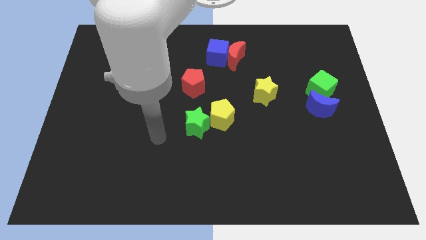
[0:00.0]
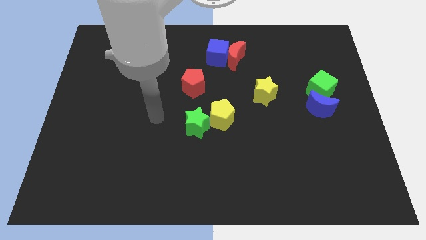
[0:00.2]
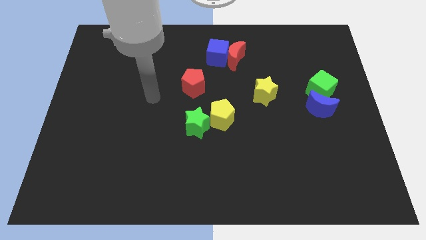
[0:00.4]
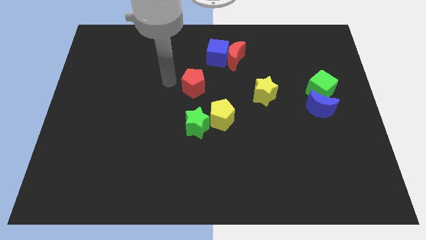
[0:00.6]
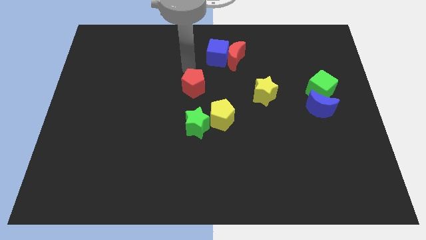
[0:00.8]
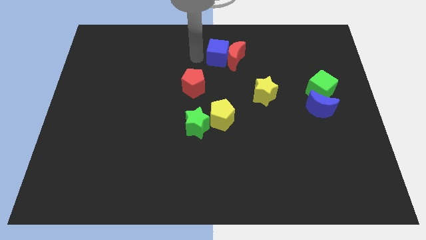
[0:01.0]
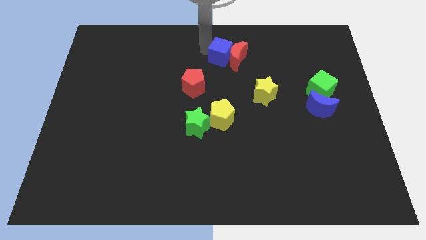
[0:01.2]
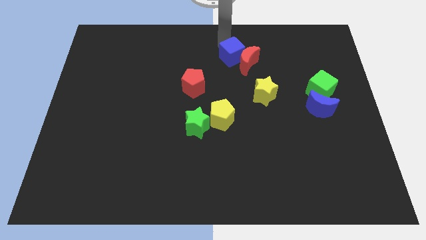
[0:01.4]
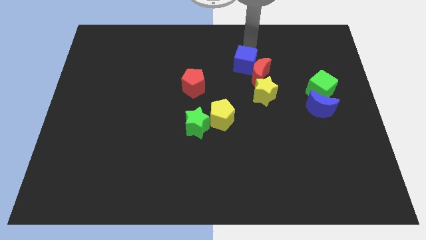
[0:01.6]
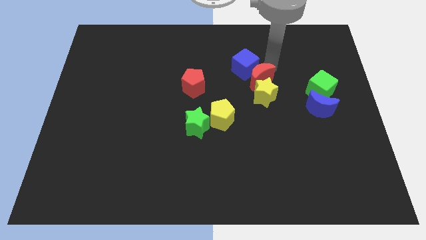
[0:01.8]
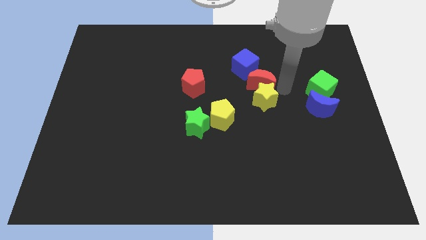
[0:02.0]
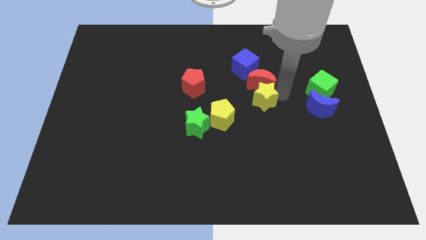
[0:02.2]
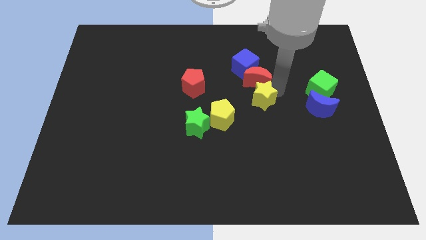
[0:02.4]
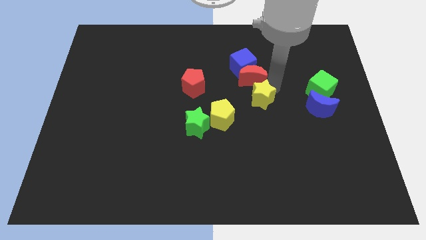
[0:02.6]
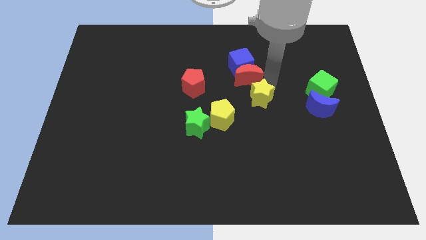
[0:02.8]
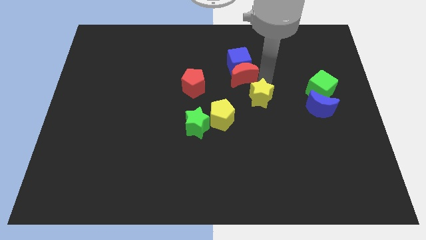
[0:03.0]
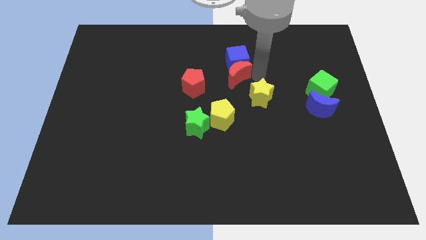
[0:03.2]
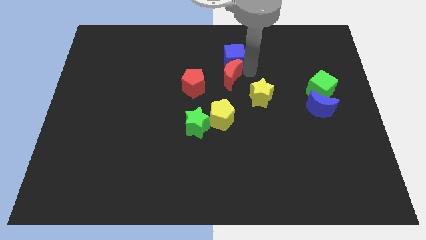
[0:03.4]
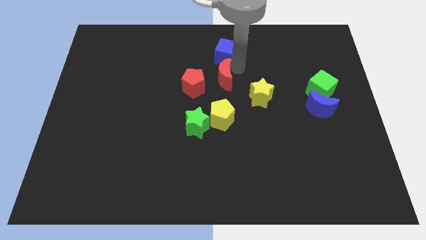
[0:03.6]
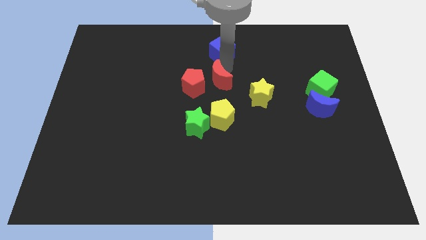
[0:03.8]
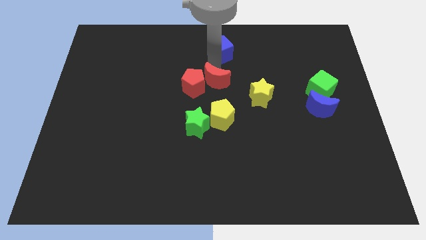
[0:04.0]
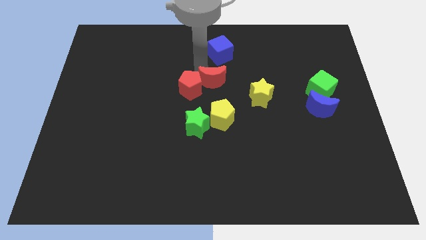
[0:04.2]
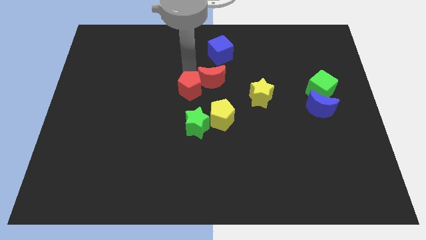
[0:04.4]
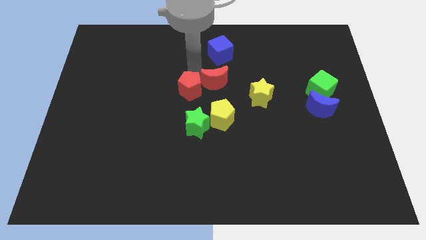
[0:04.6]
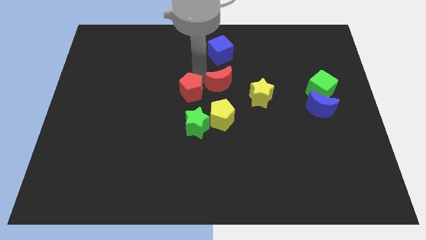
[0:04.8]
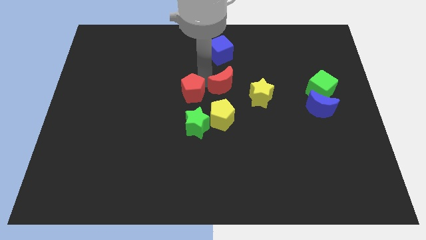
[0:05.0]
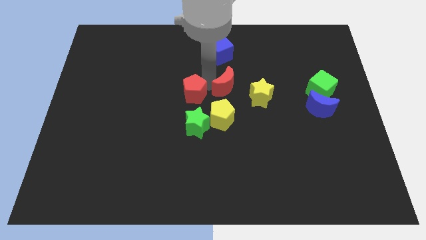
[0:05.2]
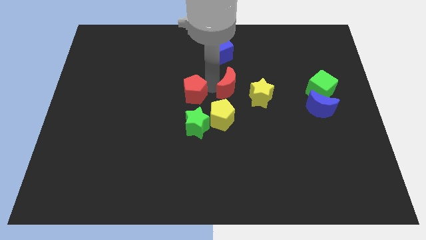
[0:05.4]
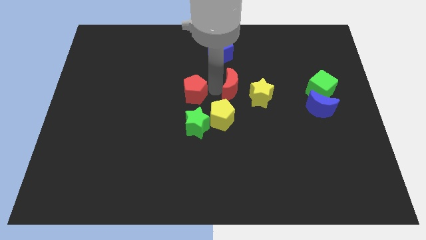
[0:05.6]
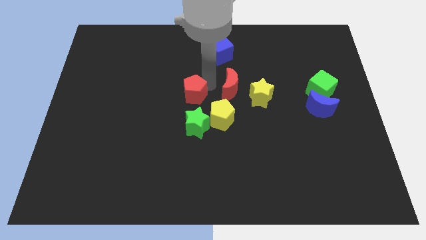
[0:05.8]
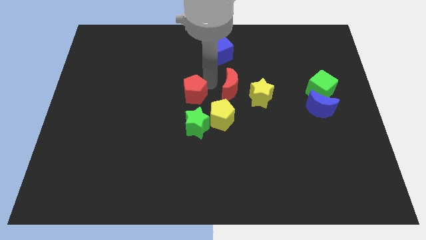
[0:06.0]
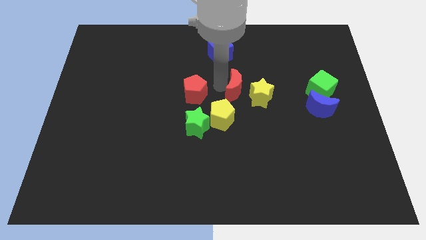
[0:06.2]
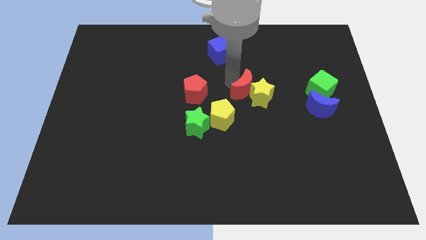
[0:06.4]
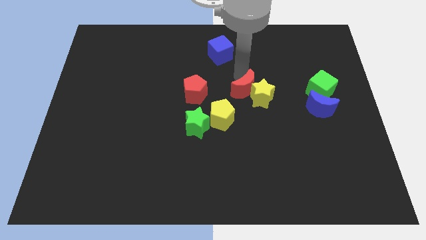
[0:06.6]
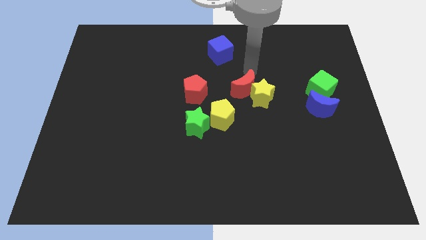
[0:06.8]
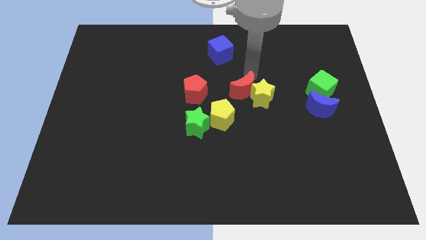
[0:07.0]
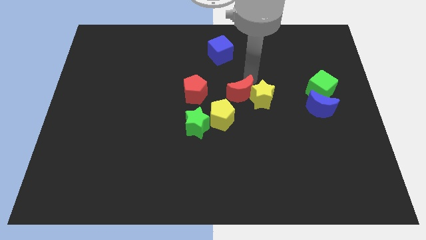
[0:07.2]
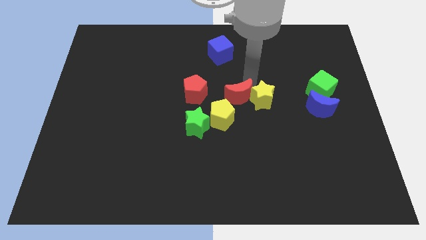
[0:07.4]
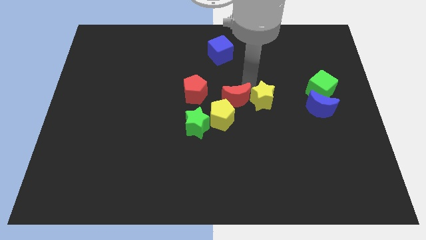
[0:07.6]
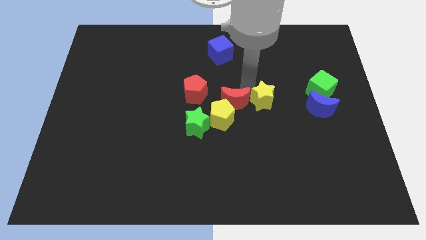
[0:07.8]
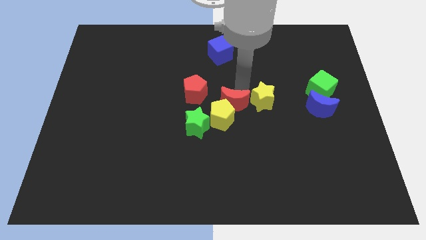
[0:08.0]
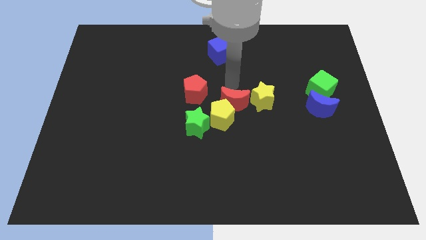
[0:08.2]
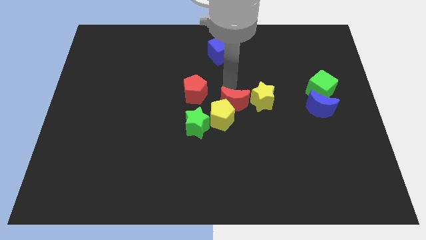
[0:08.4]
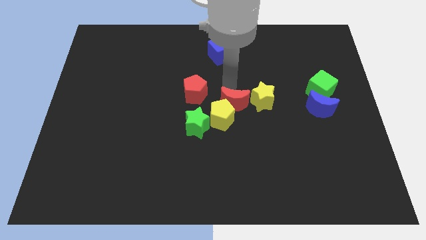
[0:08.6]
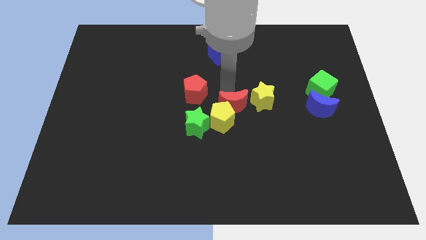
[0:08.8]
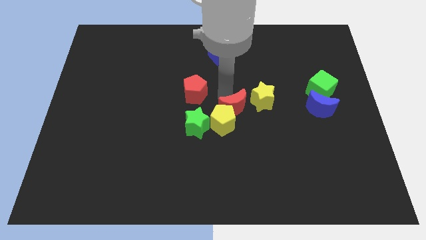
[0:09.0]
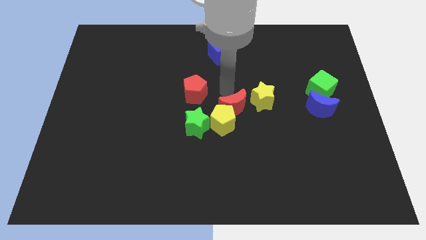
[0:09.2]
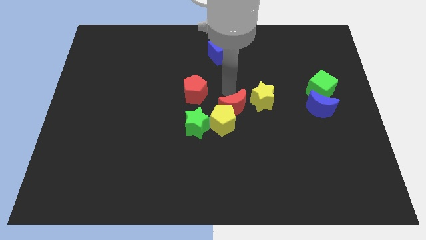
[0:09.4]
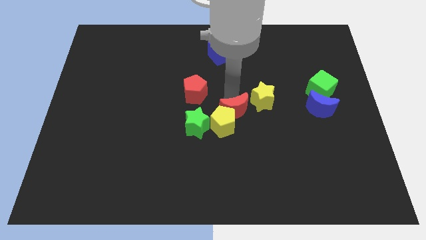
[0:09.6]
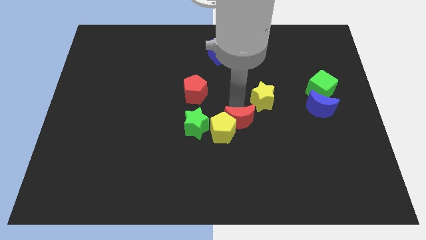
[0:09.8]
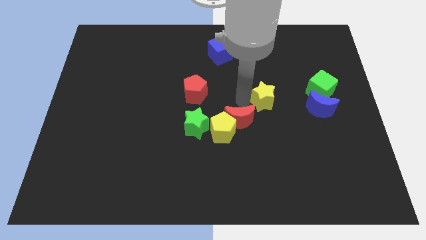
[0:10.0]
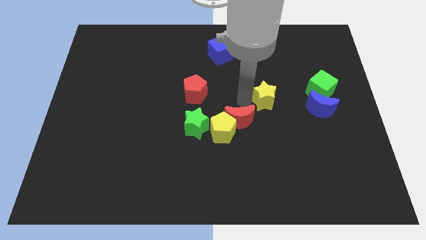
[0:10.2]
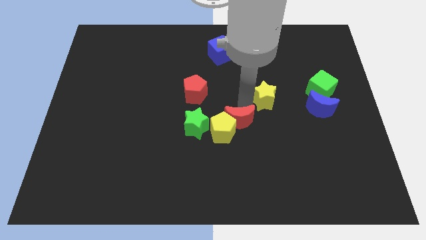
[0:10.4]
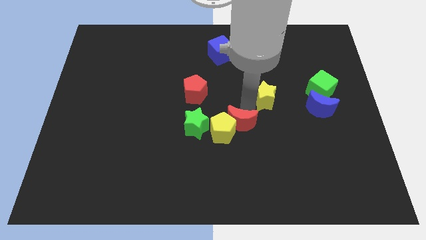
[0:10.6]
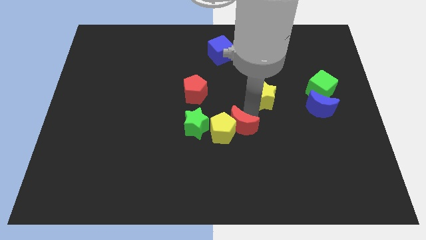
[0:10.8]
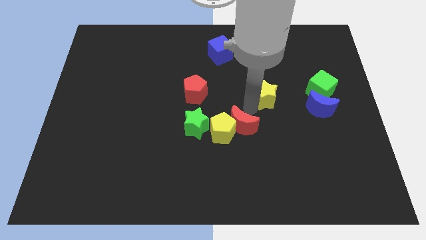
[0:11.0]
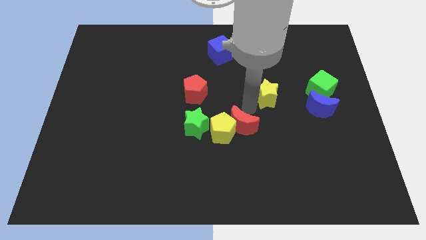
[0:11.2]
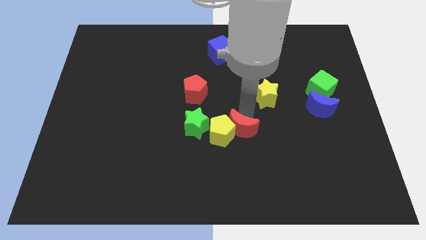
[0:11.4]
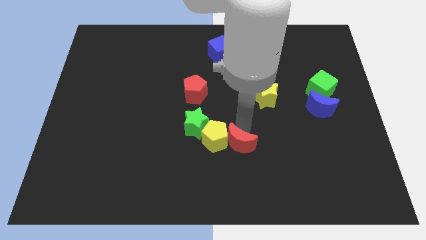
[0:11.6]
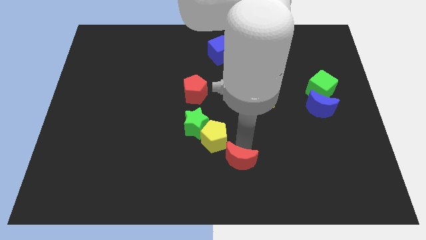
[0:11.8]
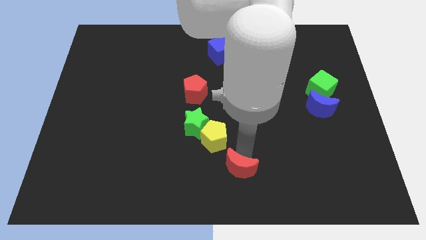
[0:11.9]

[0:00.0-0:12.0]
slide the red moon to the bottom side of the yellow pentagon

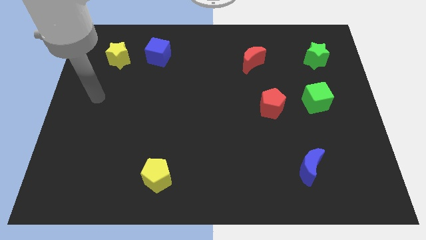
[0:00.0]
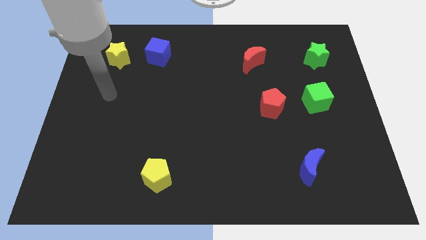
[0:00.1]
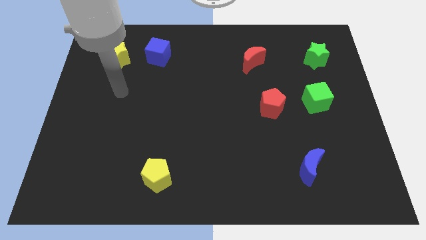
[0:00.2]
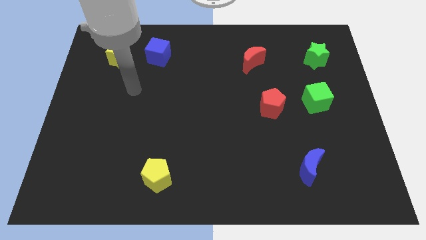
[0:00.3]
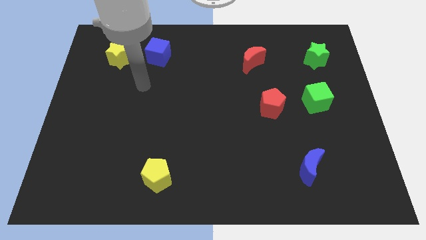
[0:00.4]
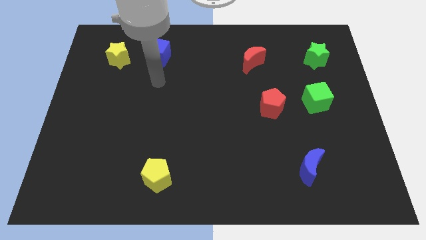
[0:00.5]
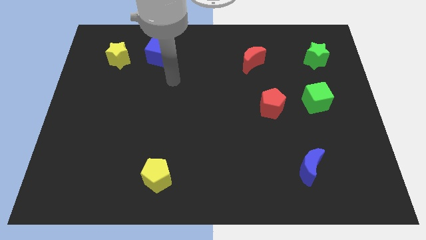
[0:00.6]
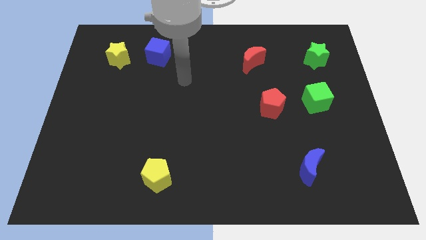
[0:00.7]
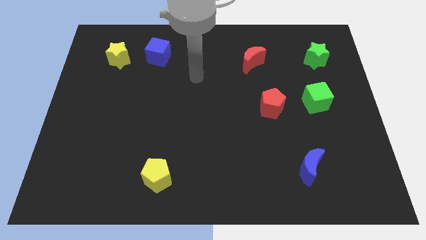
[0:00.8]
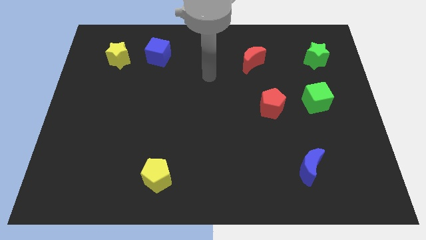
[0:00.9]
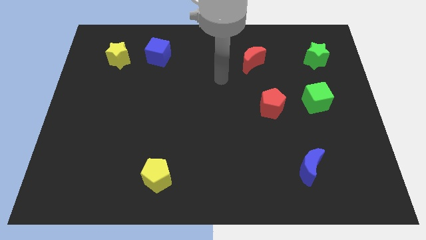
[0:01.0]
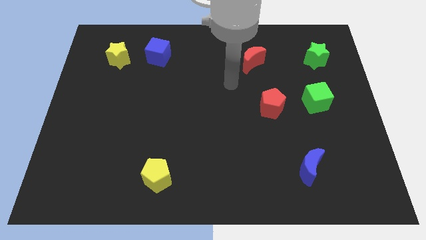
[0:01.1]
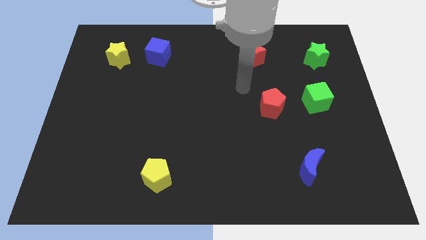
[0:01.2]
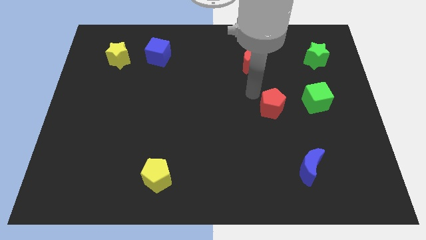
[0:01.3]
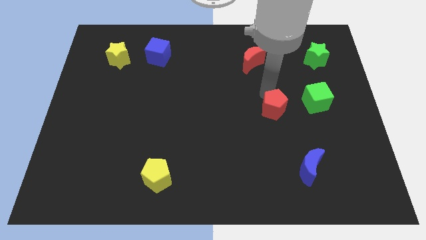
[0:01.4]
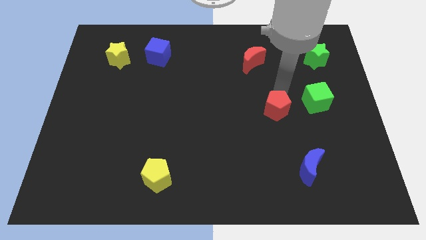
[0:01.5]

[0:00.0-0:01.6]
put the green cube to the top right of the red pentagon
